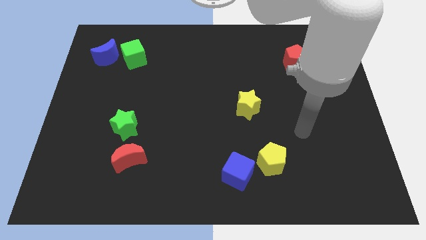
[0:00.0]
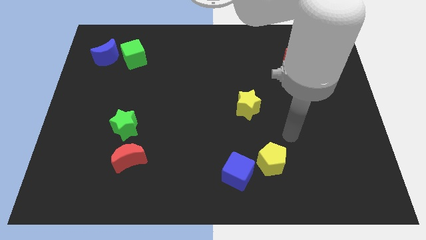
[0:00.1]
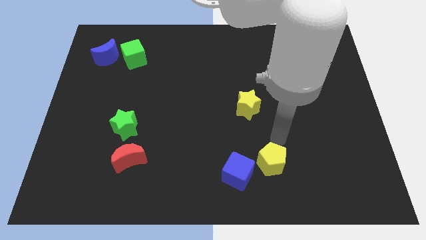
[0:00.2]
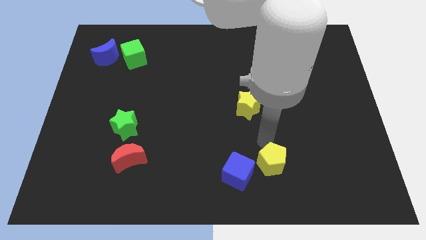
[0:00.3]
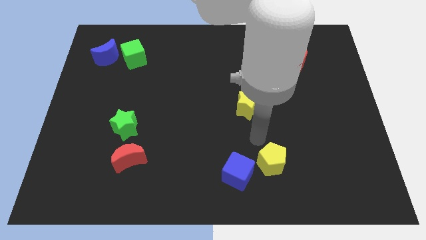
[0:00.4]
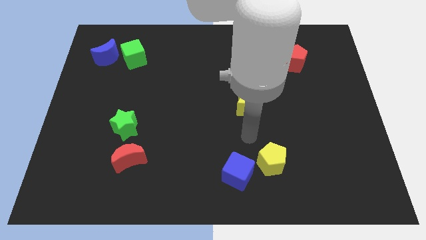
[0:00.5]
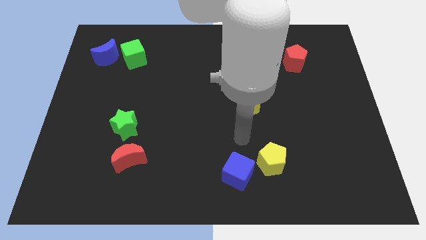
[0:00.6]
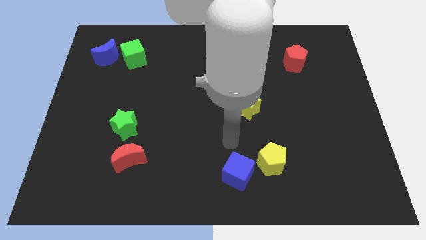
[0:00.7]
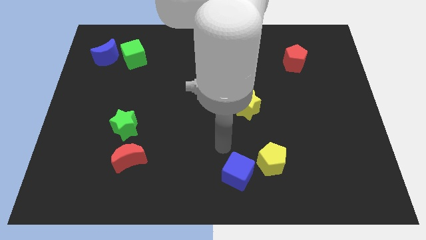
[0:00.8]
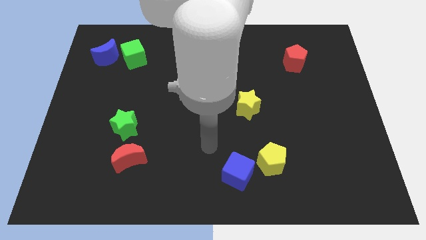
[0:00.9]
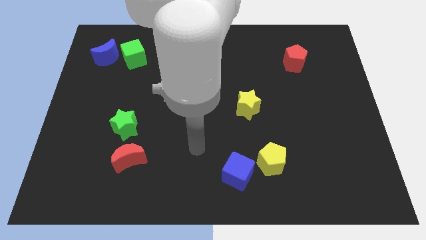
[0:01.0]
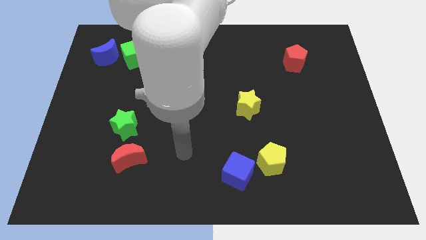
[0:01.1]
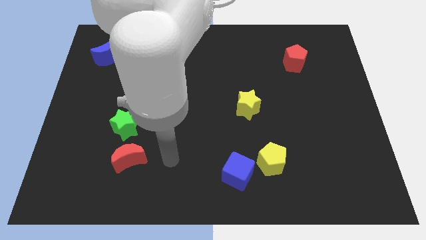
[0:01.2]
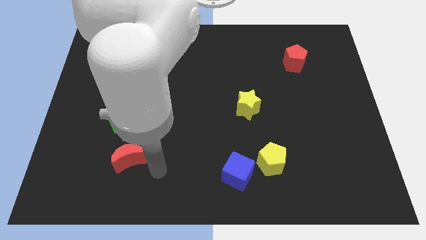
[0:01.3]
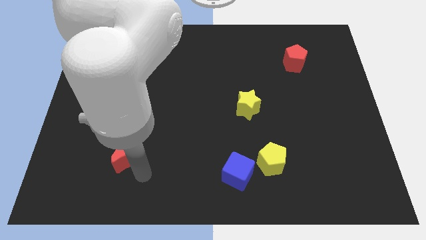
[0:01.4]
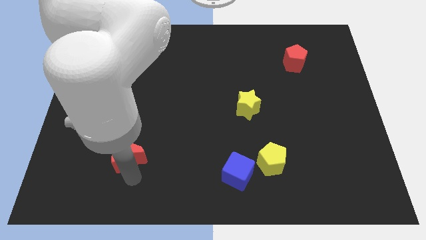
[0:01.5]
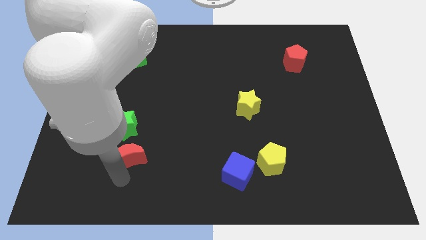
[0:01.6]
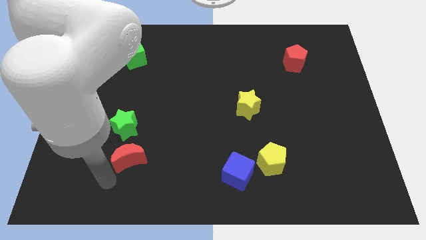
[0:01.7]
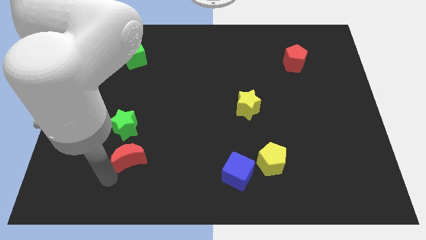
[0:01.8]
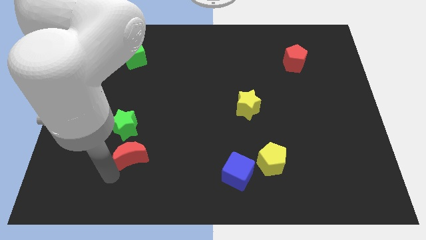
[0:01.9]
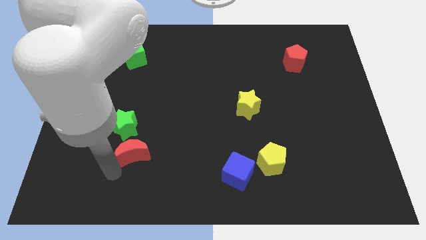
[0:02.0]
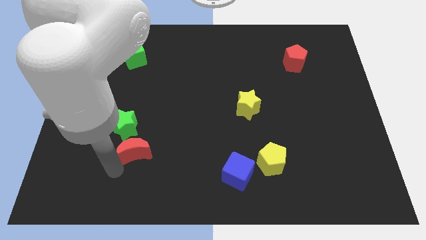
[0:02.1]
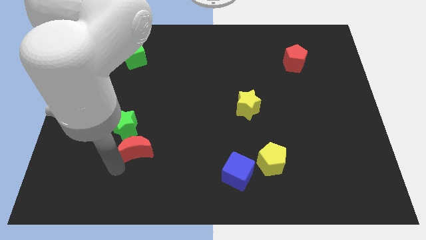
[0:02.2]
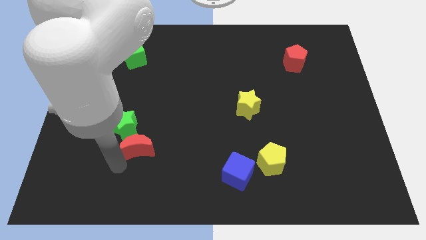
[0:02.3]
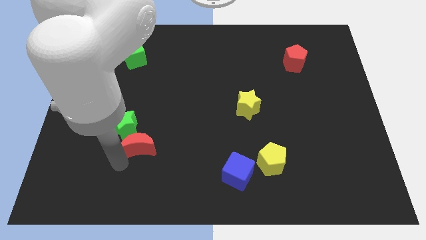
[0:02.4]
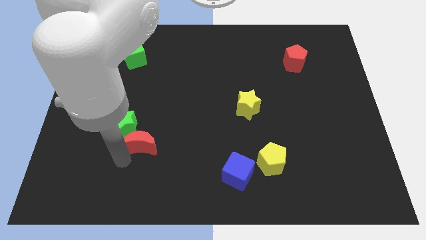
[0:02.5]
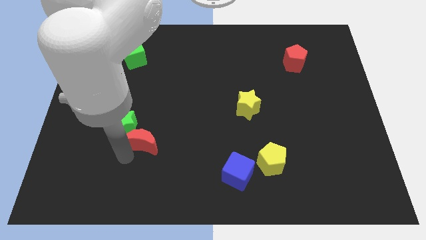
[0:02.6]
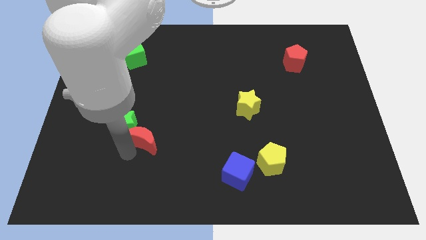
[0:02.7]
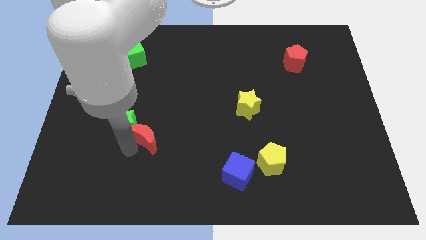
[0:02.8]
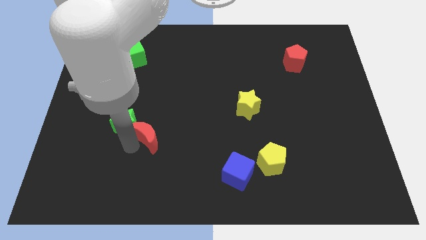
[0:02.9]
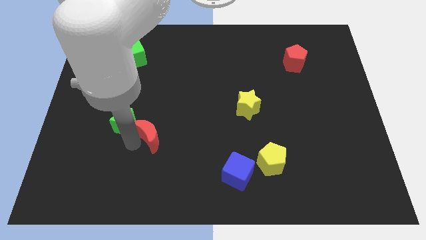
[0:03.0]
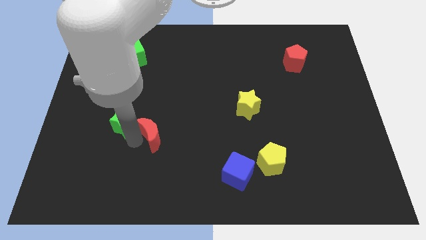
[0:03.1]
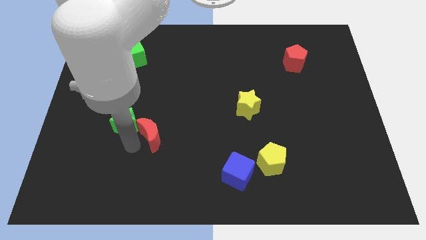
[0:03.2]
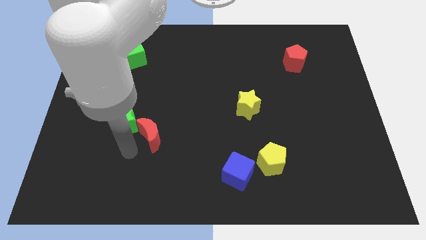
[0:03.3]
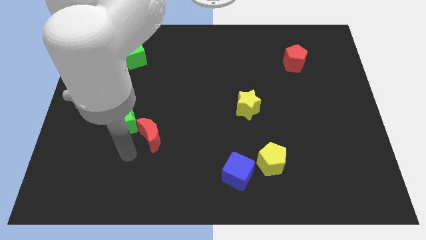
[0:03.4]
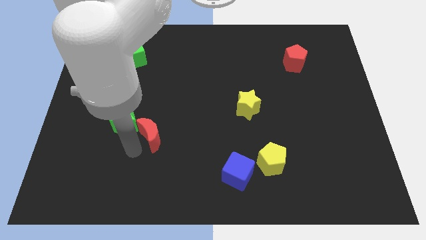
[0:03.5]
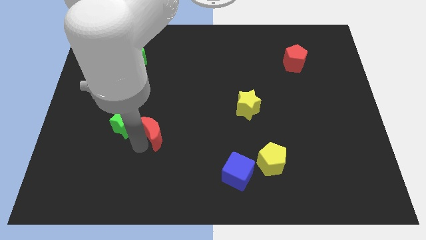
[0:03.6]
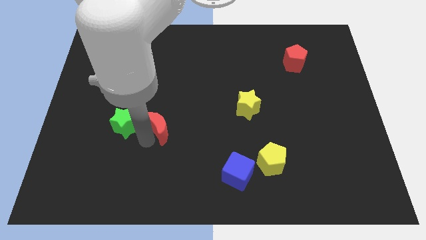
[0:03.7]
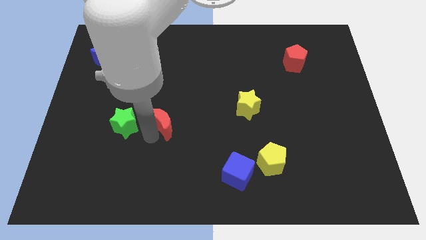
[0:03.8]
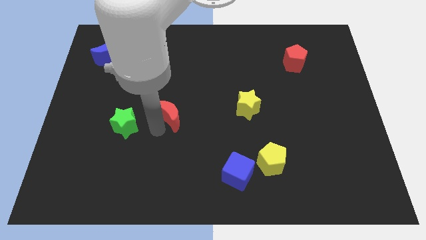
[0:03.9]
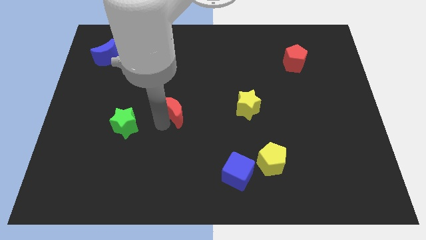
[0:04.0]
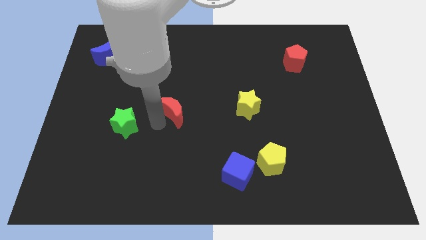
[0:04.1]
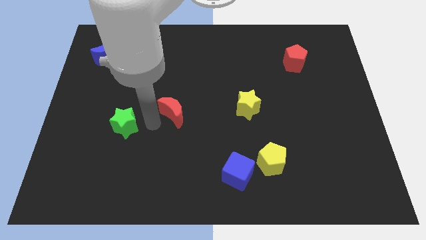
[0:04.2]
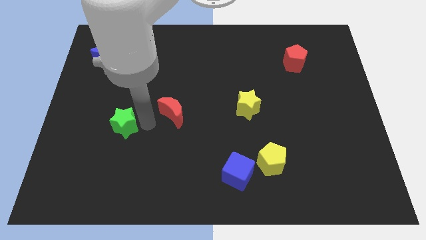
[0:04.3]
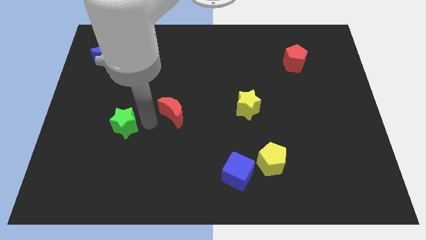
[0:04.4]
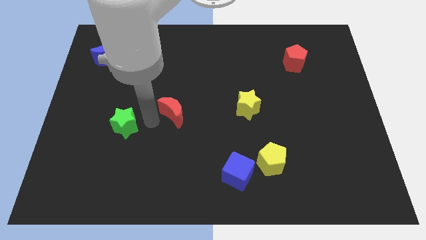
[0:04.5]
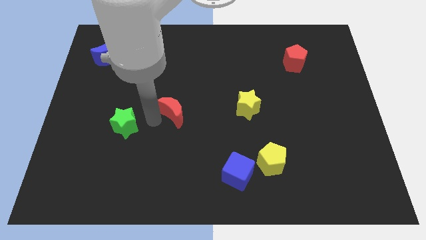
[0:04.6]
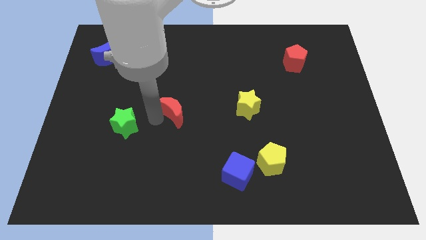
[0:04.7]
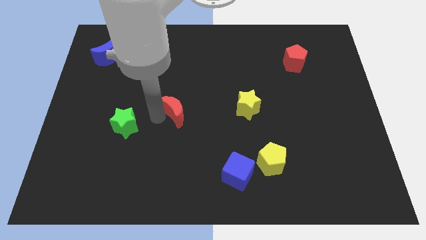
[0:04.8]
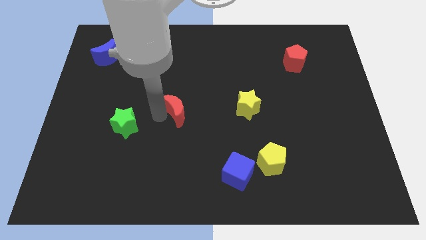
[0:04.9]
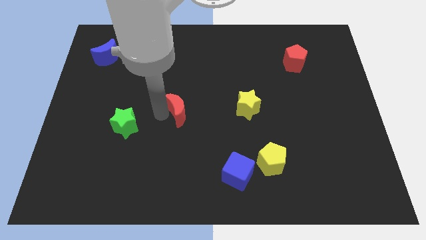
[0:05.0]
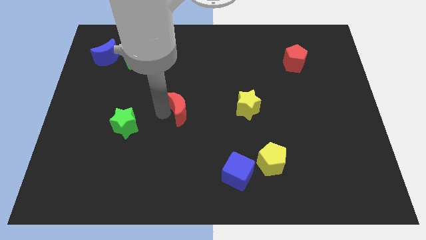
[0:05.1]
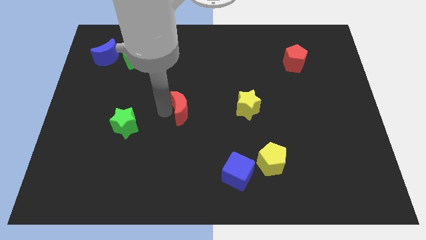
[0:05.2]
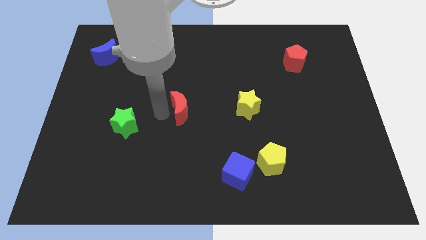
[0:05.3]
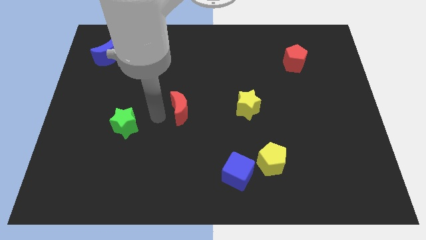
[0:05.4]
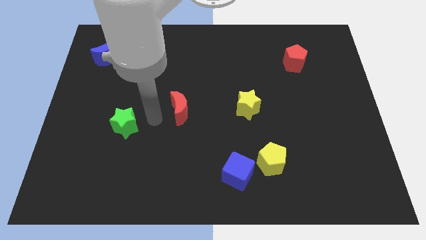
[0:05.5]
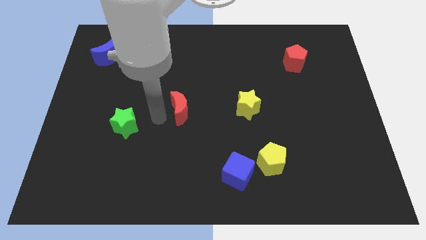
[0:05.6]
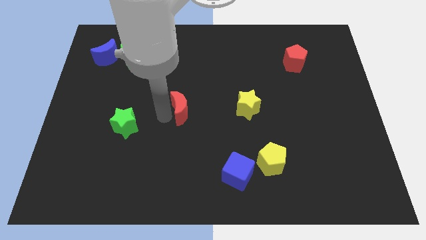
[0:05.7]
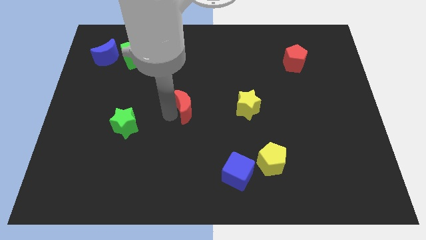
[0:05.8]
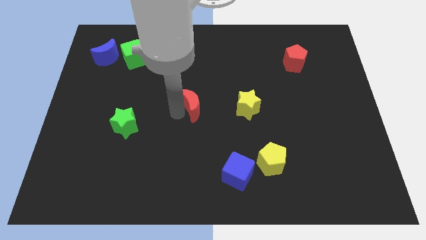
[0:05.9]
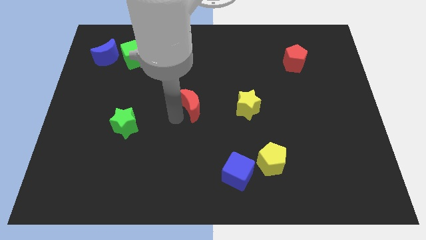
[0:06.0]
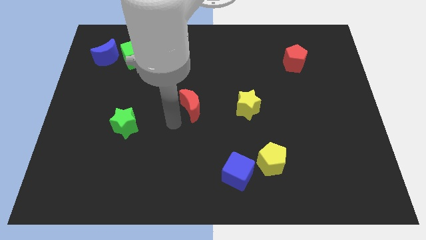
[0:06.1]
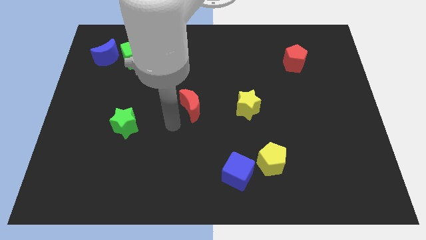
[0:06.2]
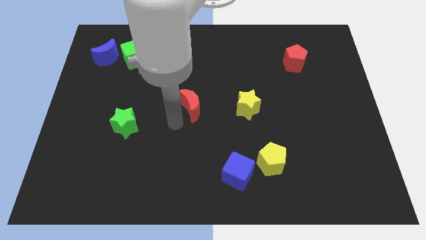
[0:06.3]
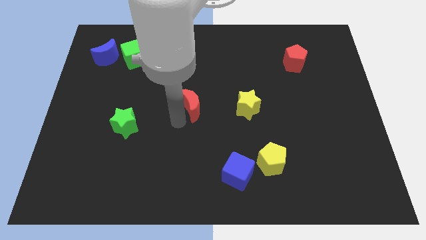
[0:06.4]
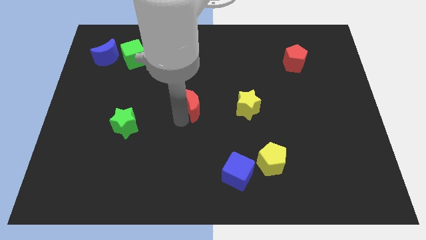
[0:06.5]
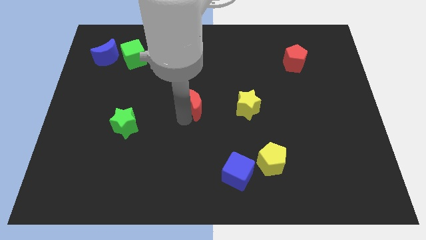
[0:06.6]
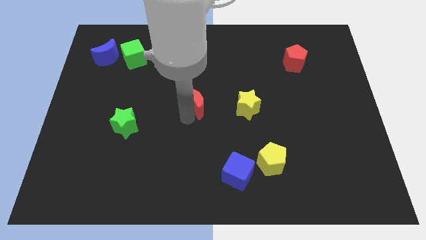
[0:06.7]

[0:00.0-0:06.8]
slide the red moon diagonally up and to the right

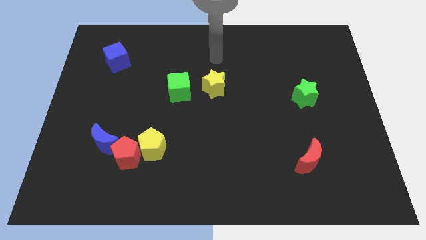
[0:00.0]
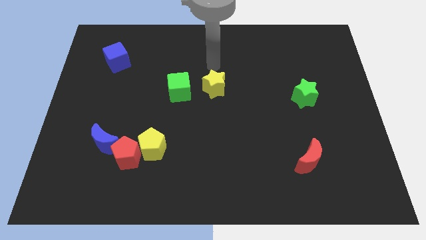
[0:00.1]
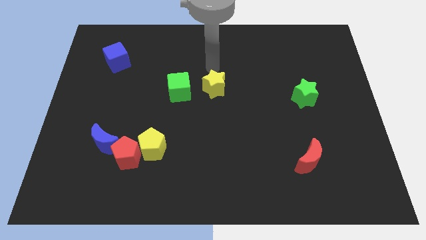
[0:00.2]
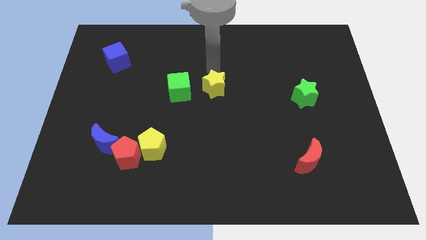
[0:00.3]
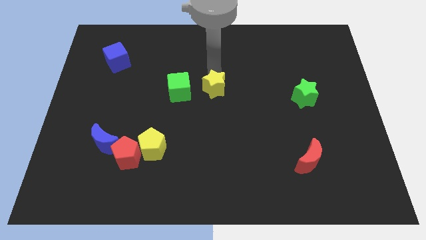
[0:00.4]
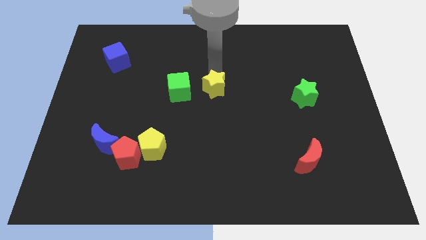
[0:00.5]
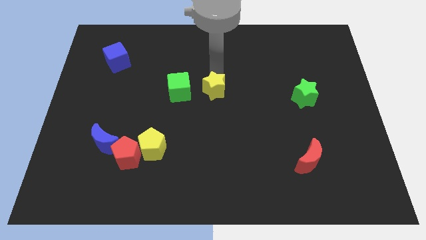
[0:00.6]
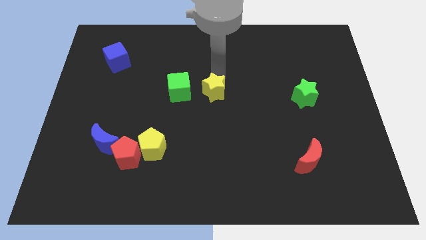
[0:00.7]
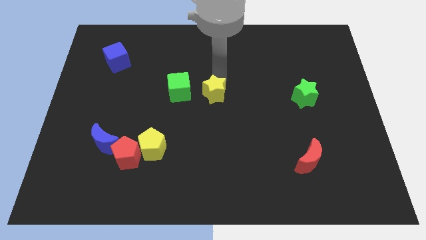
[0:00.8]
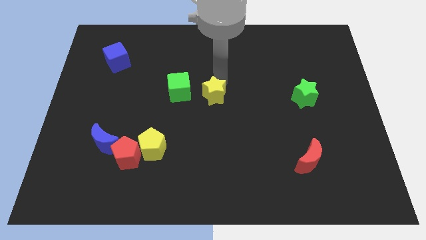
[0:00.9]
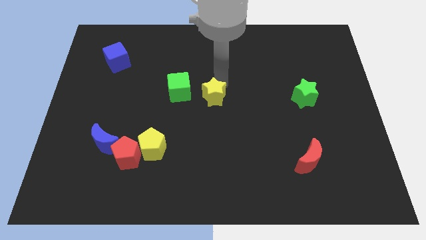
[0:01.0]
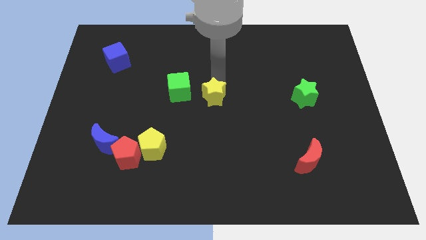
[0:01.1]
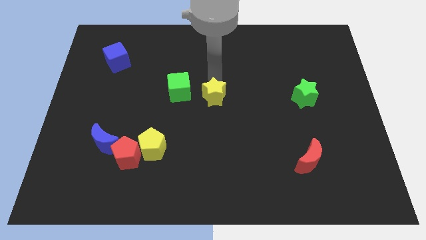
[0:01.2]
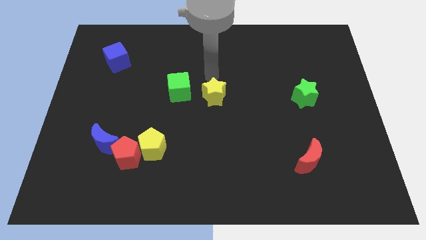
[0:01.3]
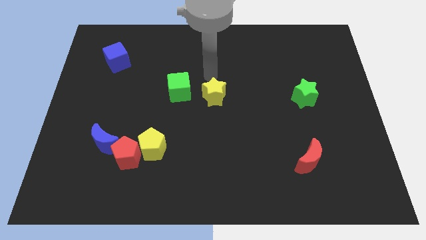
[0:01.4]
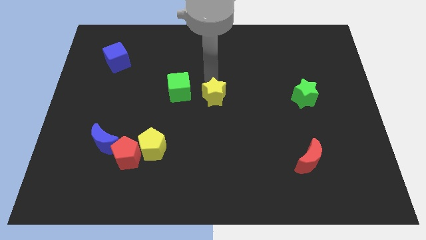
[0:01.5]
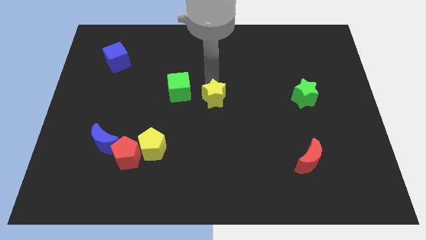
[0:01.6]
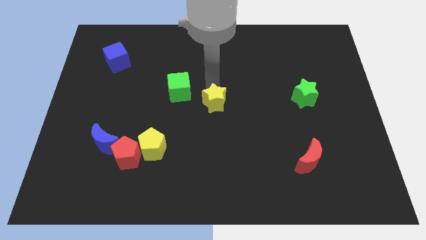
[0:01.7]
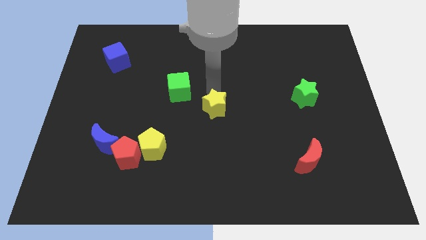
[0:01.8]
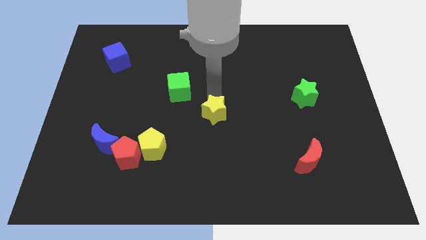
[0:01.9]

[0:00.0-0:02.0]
move the yellow star downwards a little bit
